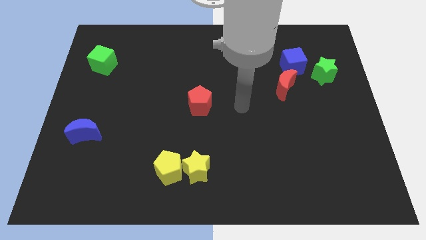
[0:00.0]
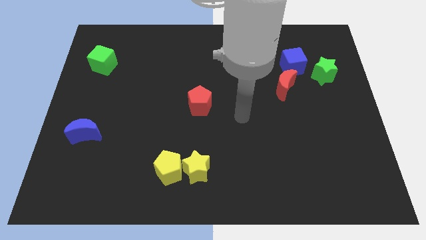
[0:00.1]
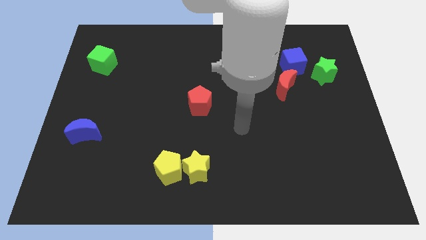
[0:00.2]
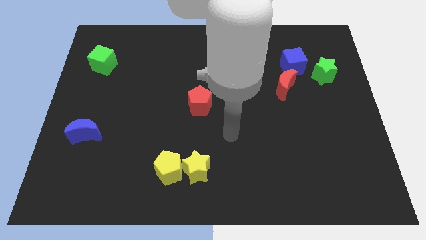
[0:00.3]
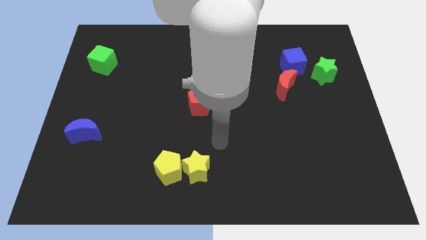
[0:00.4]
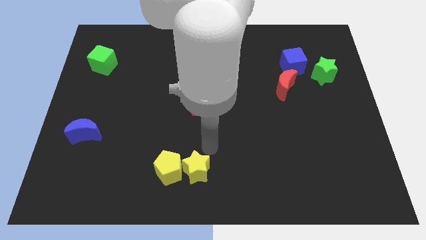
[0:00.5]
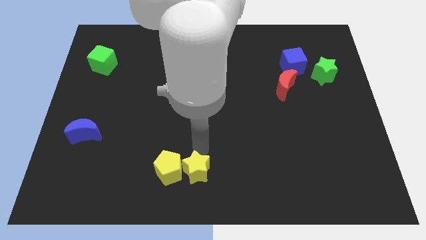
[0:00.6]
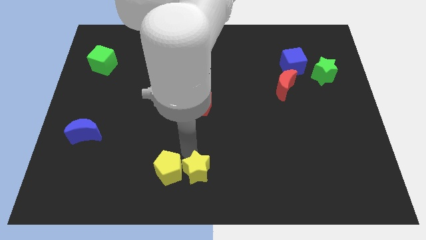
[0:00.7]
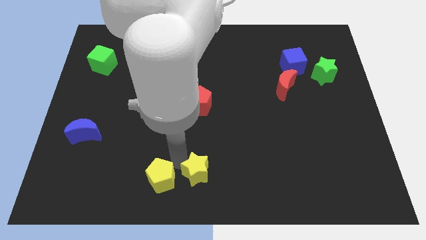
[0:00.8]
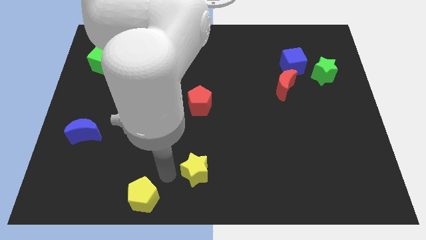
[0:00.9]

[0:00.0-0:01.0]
separate the yellow star from the yellow pentagon

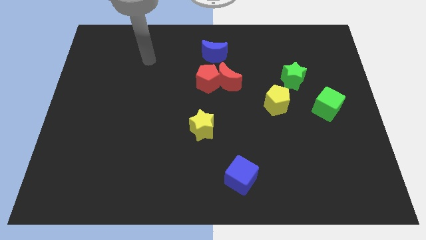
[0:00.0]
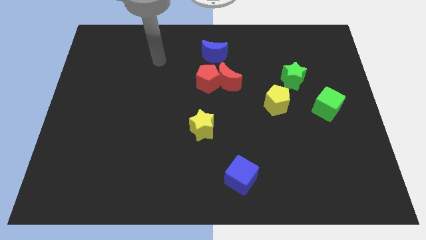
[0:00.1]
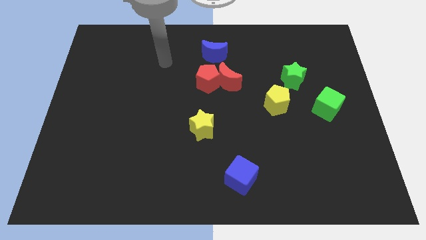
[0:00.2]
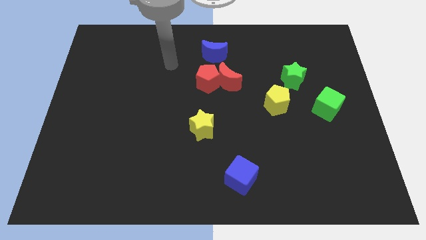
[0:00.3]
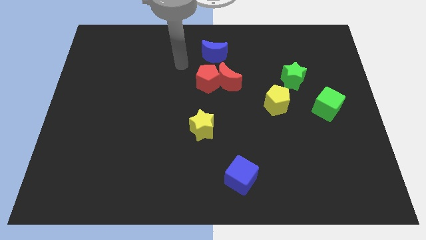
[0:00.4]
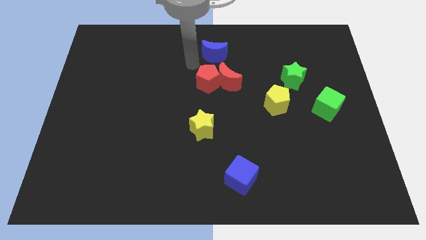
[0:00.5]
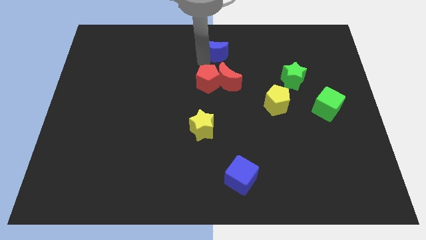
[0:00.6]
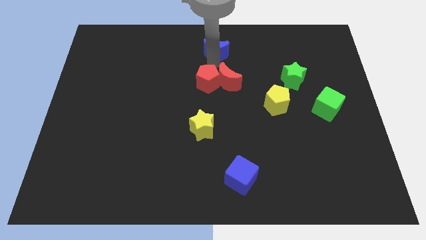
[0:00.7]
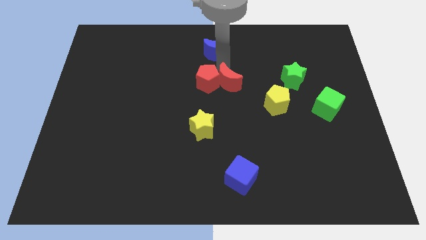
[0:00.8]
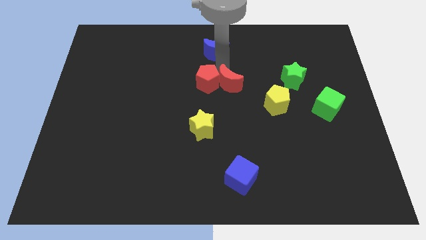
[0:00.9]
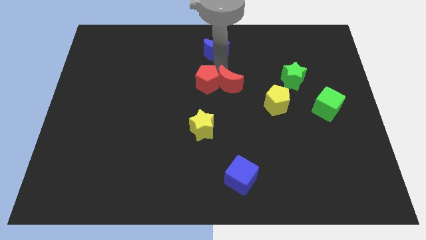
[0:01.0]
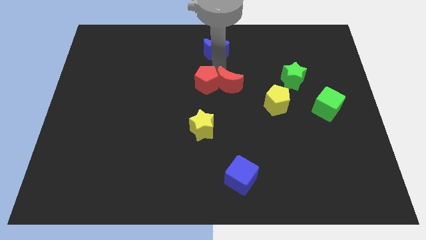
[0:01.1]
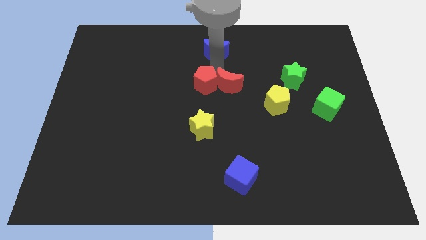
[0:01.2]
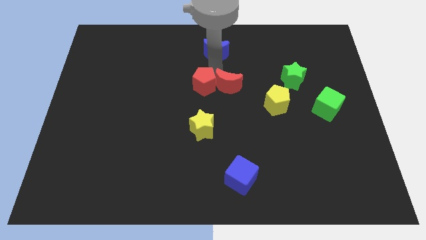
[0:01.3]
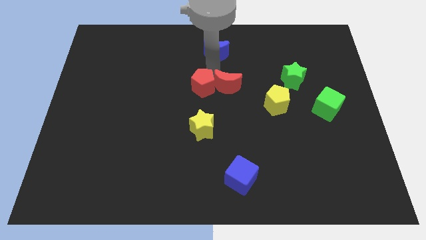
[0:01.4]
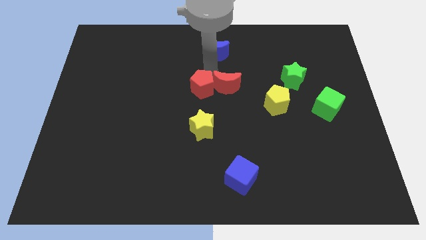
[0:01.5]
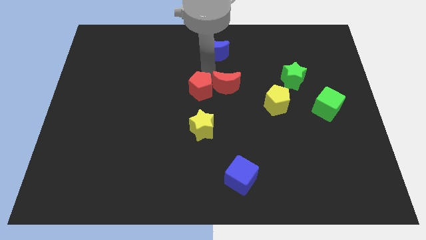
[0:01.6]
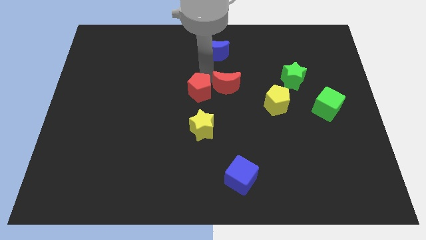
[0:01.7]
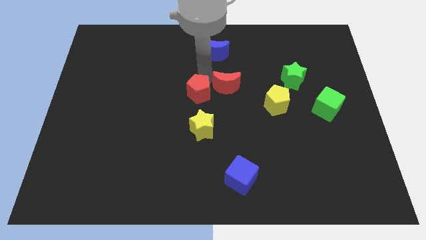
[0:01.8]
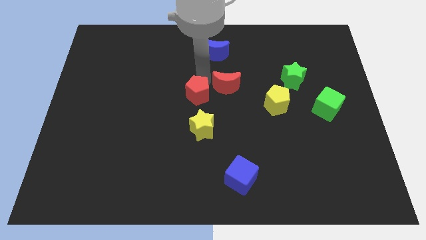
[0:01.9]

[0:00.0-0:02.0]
move the red pentagon away from the red moon and blue moon

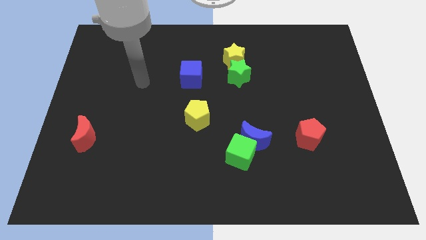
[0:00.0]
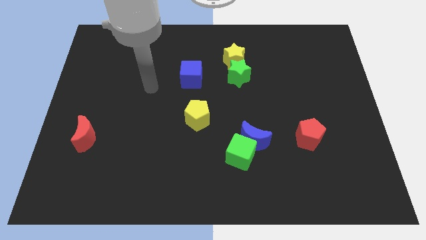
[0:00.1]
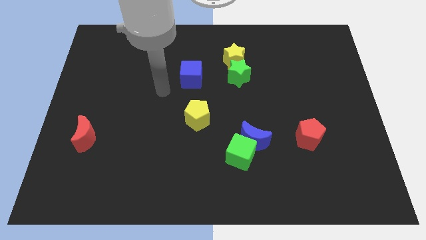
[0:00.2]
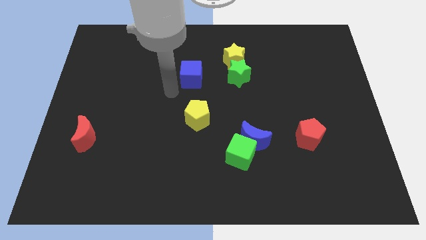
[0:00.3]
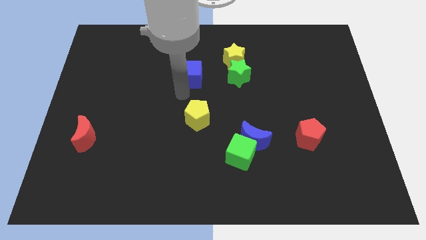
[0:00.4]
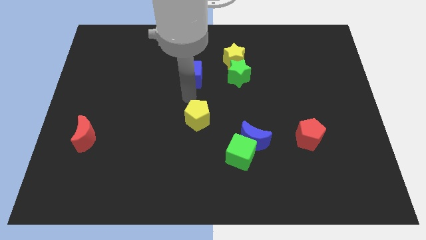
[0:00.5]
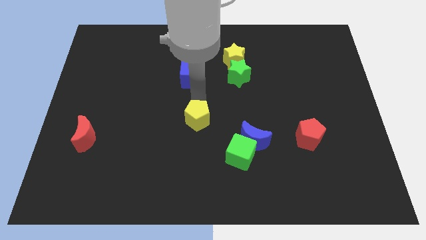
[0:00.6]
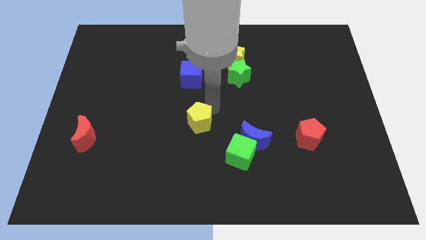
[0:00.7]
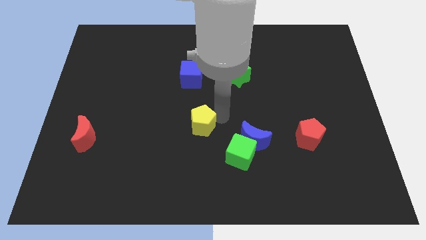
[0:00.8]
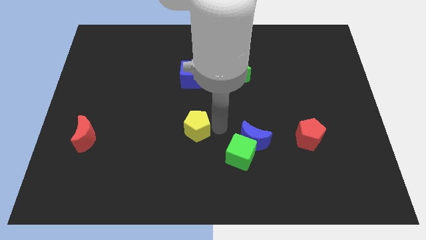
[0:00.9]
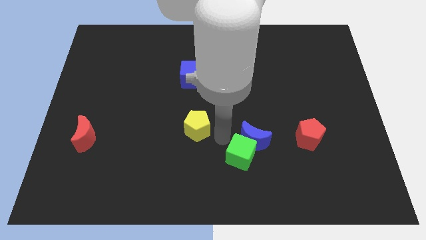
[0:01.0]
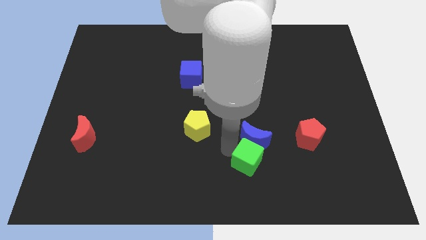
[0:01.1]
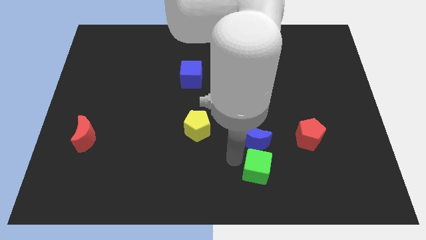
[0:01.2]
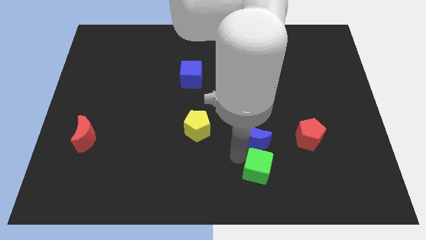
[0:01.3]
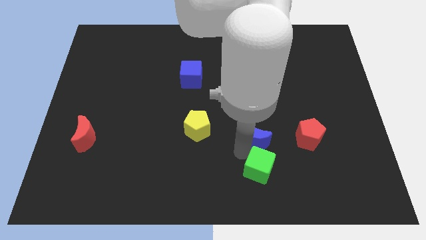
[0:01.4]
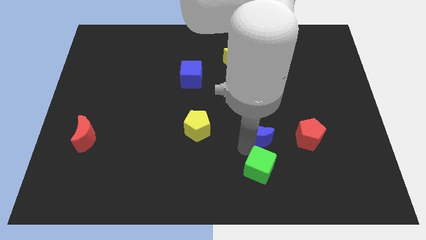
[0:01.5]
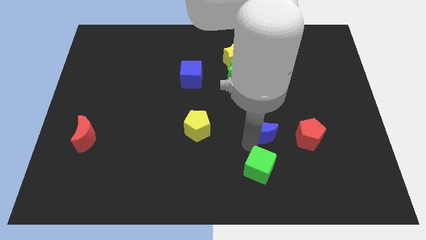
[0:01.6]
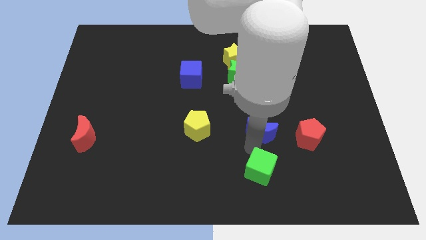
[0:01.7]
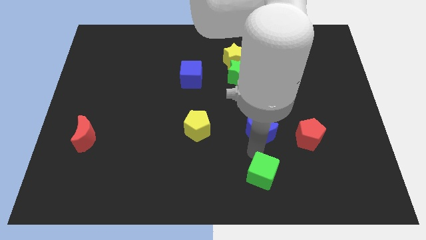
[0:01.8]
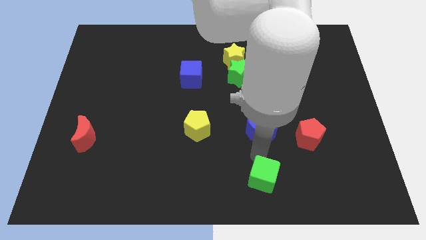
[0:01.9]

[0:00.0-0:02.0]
pull the blue moon apart from the green cube

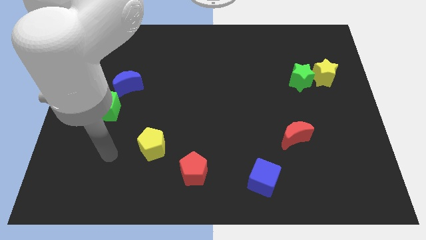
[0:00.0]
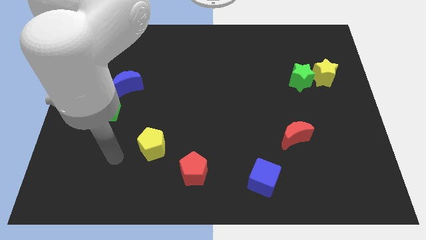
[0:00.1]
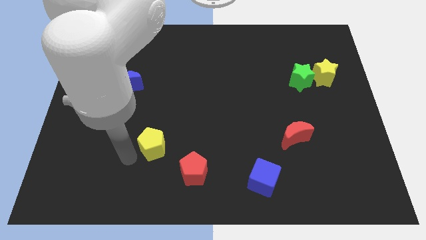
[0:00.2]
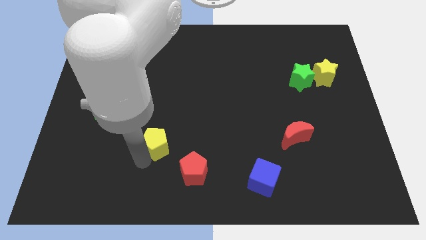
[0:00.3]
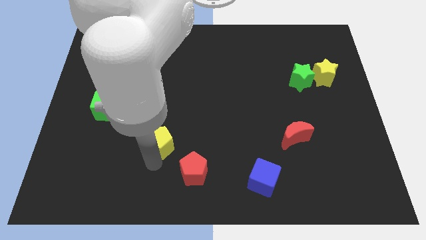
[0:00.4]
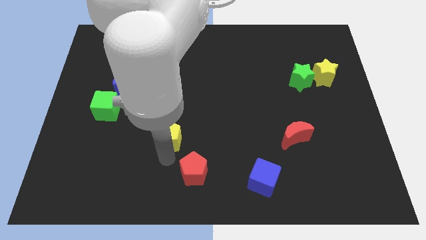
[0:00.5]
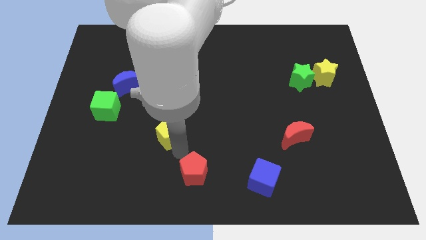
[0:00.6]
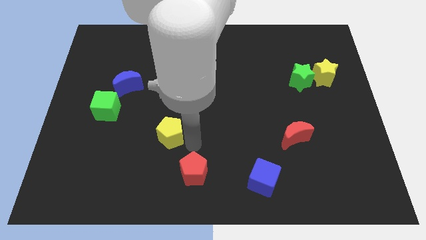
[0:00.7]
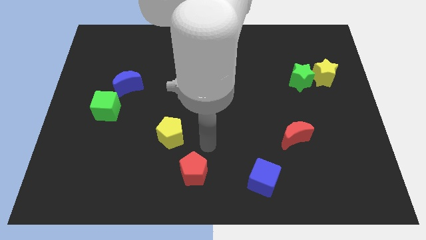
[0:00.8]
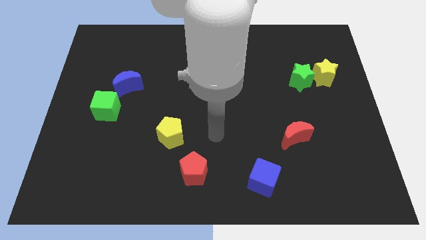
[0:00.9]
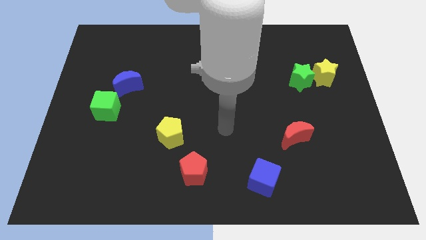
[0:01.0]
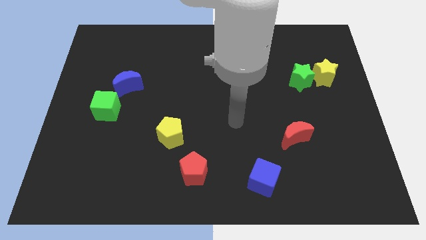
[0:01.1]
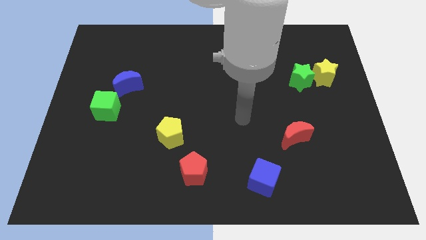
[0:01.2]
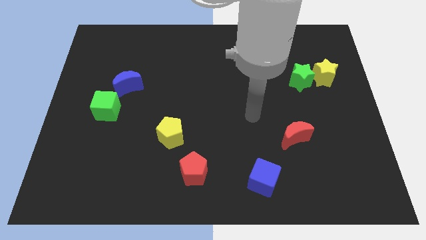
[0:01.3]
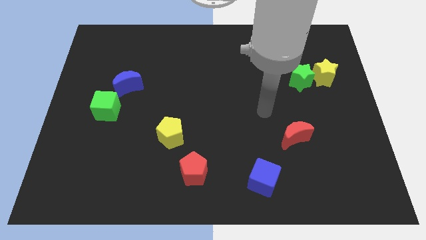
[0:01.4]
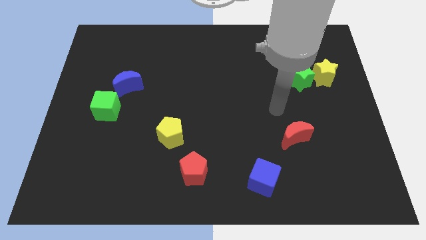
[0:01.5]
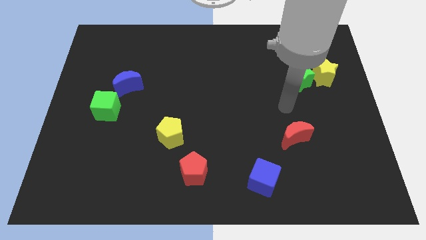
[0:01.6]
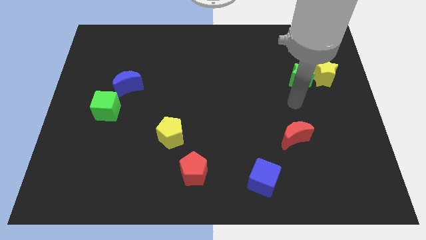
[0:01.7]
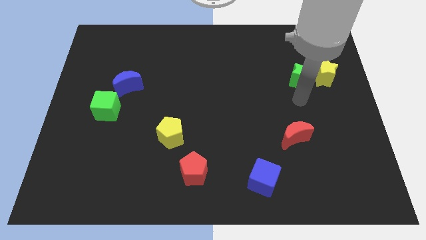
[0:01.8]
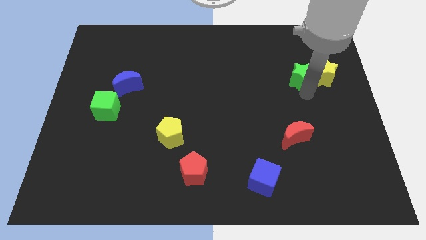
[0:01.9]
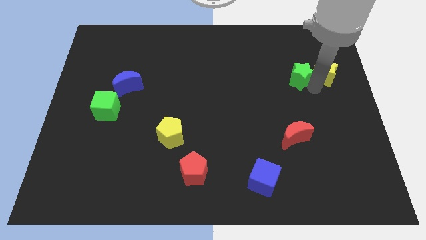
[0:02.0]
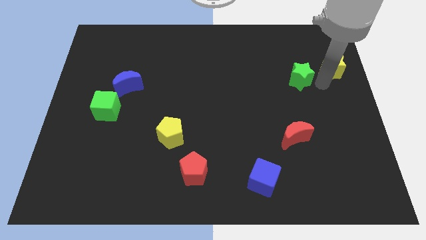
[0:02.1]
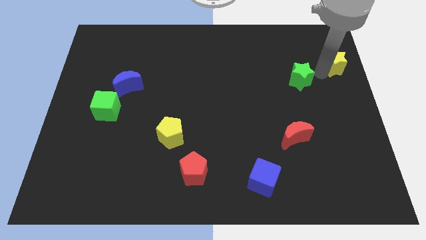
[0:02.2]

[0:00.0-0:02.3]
pull the green star apart from the yellow star

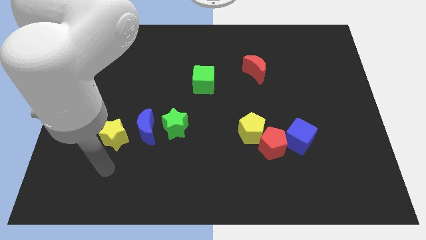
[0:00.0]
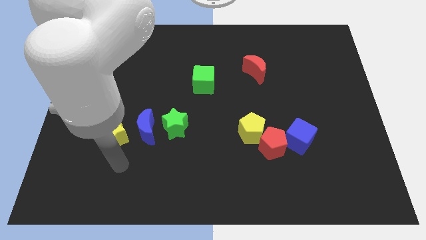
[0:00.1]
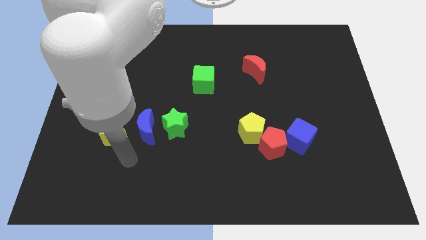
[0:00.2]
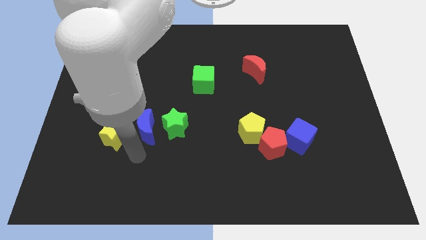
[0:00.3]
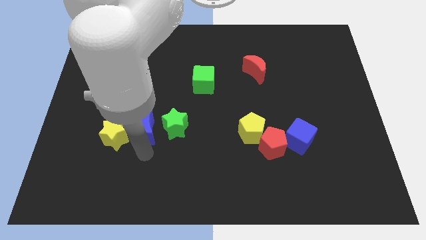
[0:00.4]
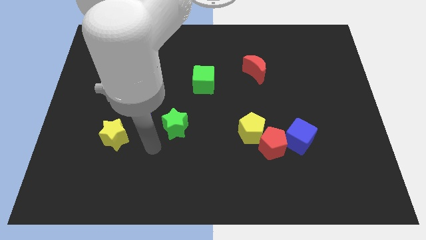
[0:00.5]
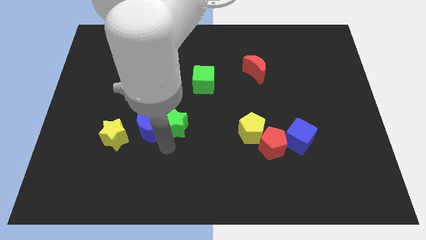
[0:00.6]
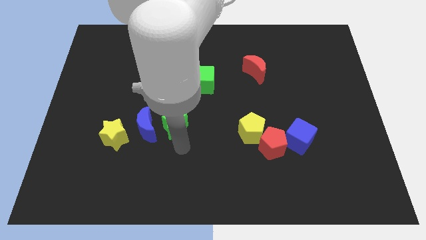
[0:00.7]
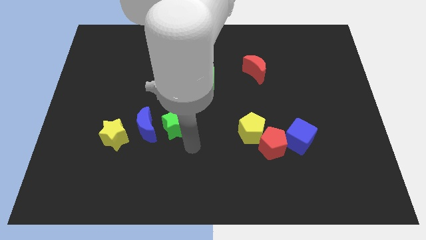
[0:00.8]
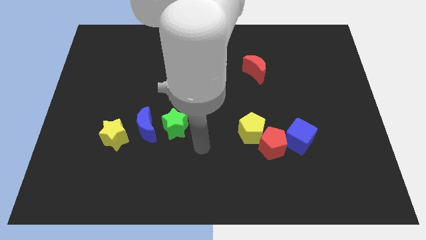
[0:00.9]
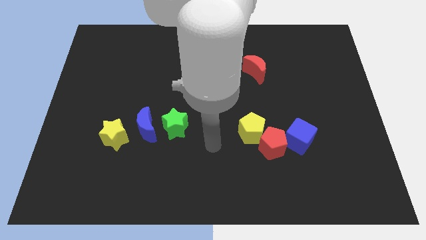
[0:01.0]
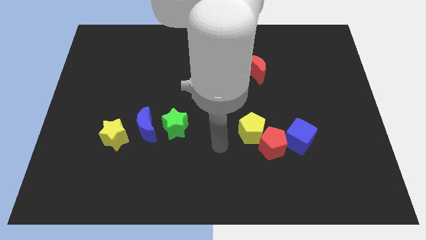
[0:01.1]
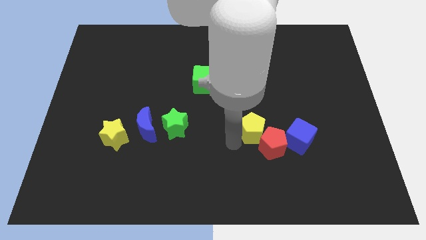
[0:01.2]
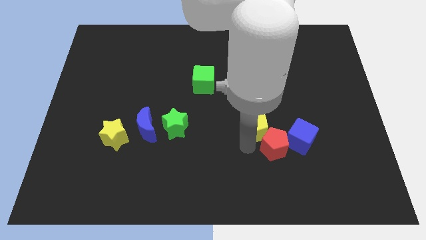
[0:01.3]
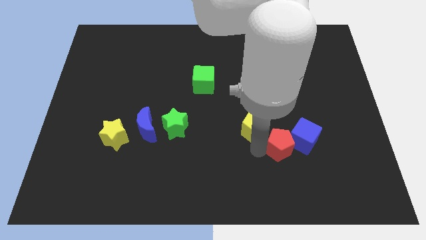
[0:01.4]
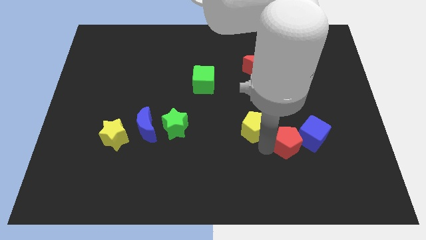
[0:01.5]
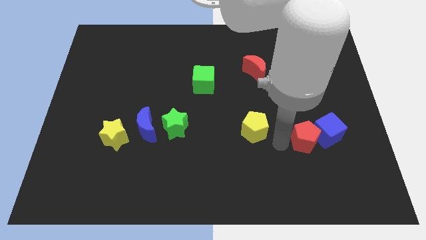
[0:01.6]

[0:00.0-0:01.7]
pull the yellow pentagon apart from the red pentagon

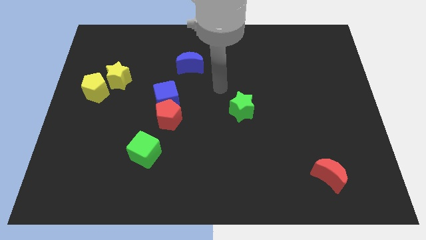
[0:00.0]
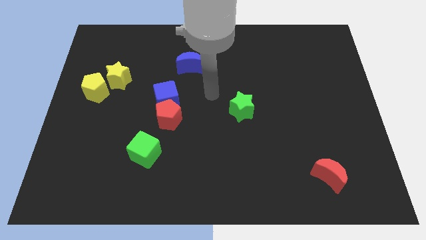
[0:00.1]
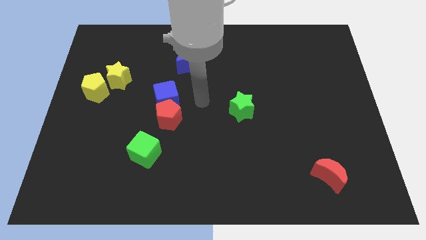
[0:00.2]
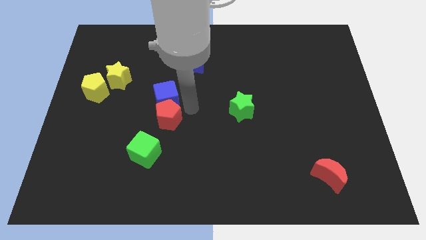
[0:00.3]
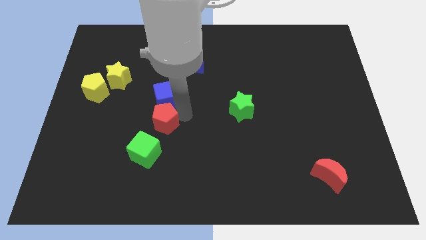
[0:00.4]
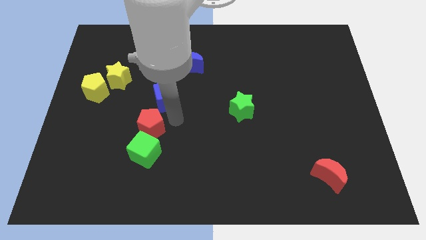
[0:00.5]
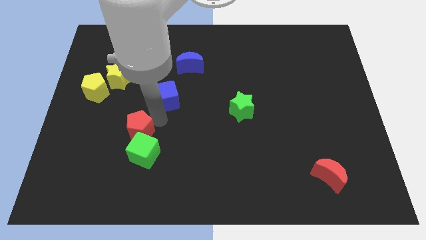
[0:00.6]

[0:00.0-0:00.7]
separate the blue cube from the red pentagon
